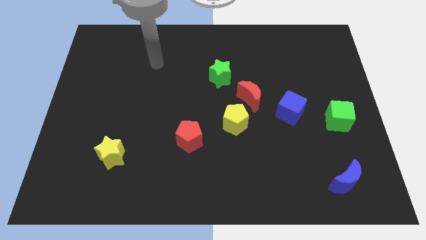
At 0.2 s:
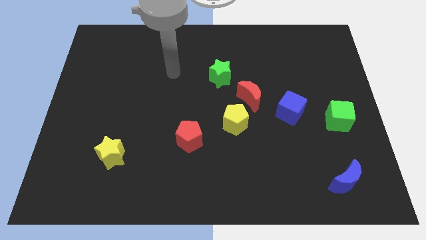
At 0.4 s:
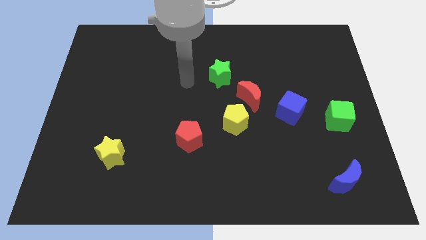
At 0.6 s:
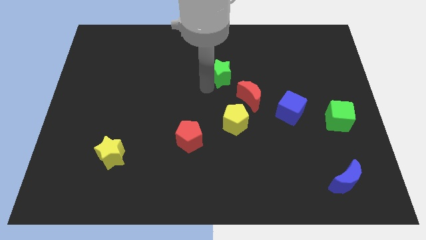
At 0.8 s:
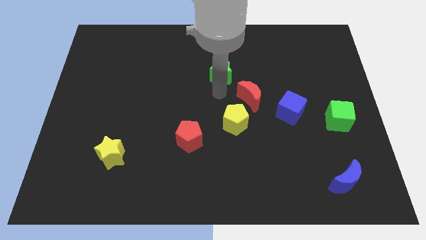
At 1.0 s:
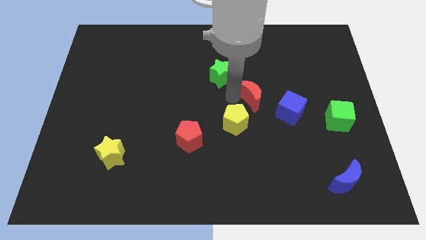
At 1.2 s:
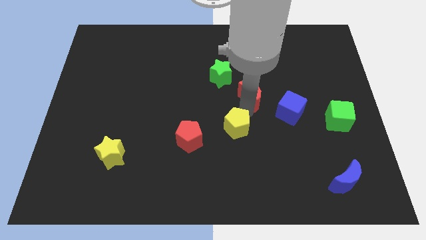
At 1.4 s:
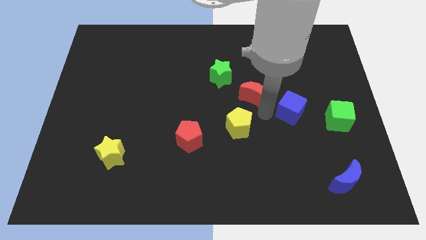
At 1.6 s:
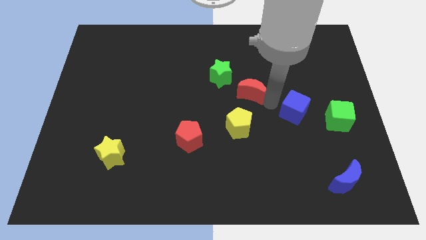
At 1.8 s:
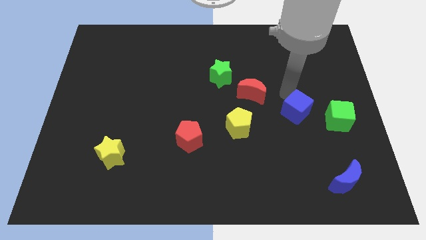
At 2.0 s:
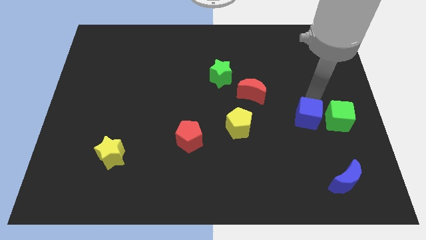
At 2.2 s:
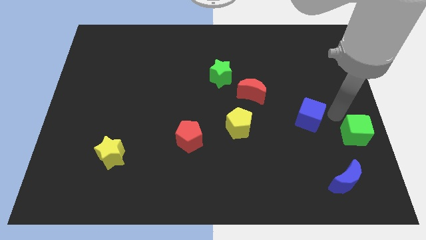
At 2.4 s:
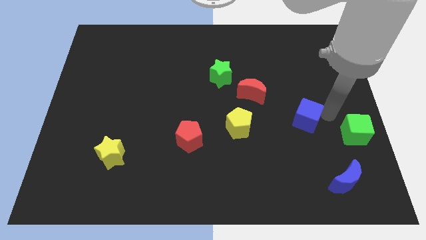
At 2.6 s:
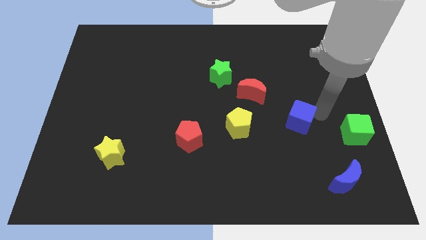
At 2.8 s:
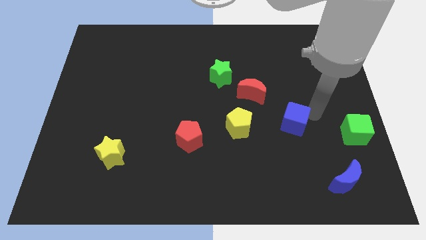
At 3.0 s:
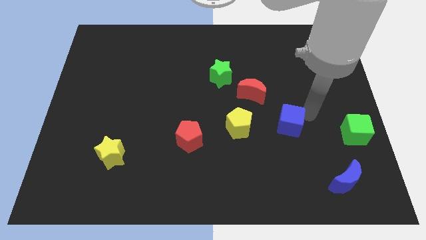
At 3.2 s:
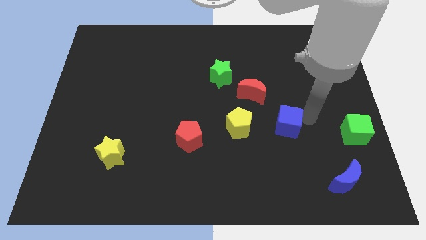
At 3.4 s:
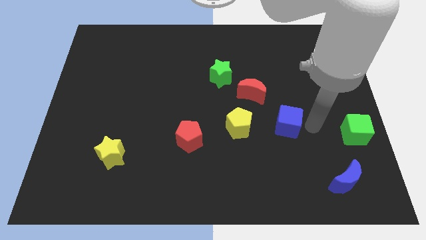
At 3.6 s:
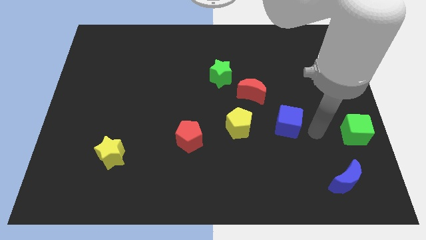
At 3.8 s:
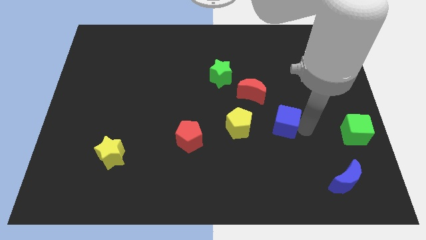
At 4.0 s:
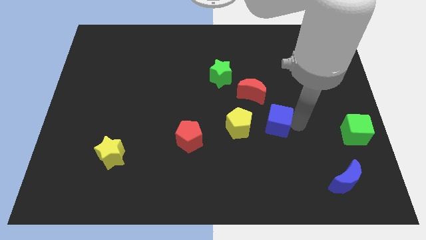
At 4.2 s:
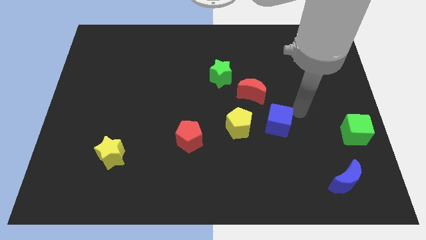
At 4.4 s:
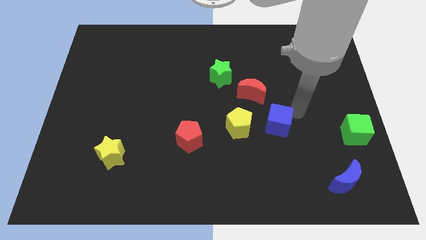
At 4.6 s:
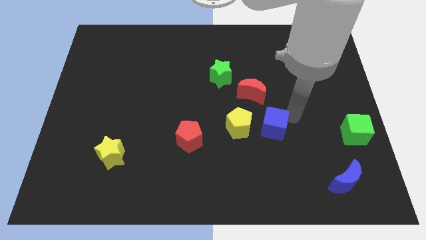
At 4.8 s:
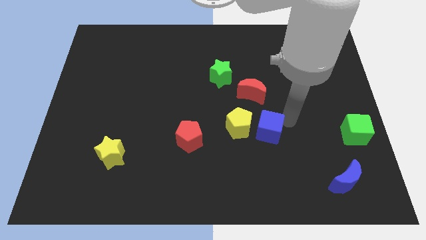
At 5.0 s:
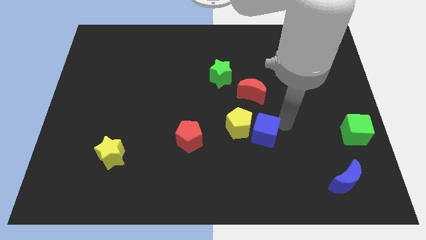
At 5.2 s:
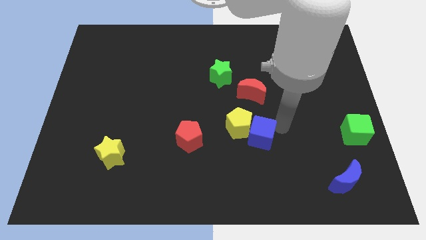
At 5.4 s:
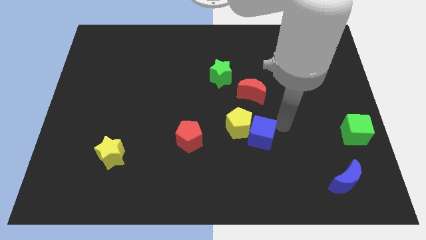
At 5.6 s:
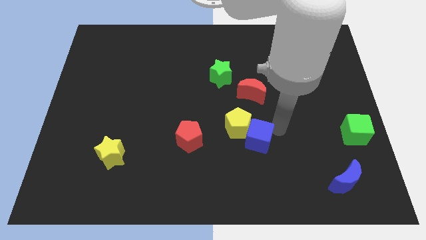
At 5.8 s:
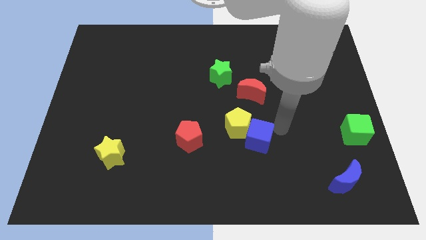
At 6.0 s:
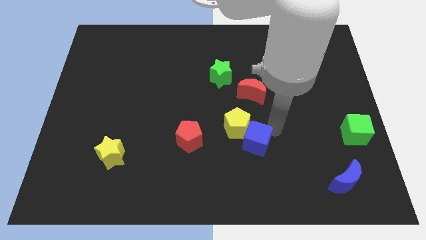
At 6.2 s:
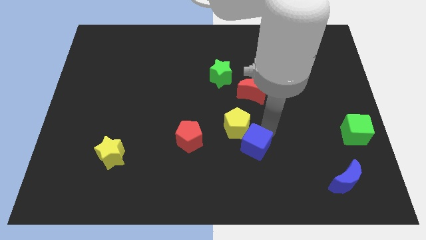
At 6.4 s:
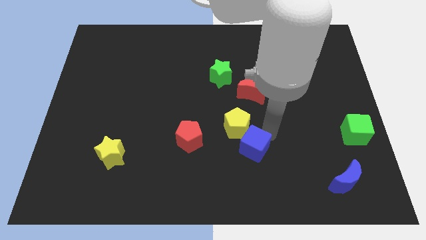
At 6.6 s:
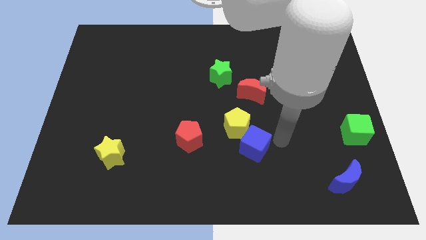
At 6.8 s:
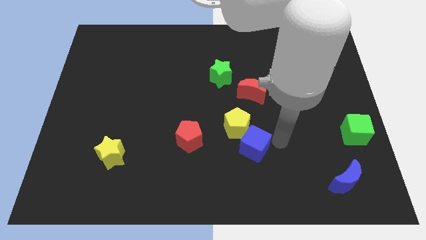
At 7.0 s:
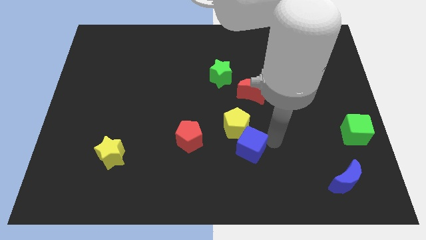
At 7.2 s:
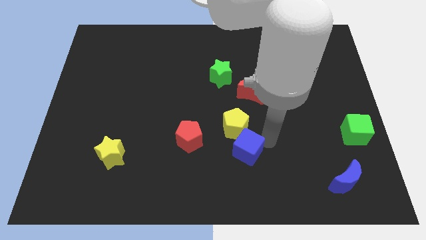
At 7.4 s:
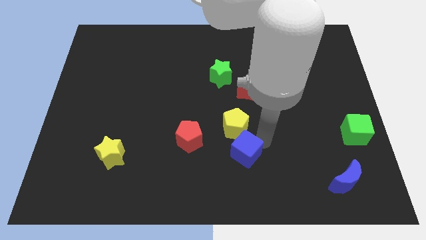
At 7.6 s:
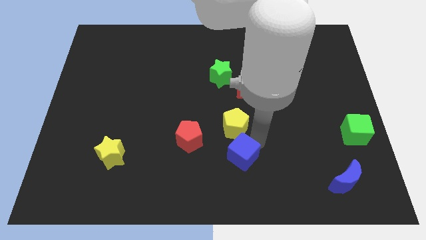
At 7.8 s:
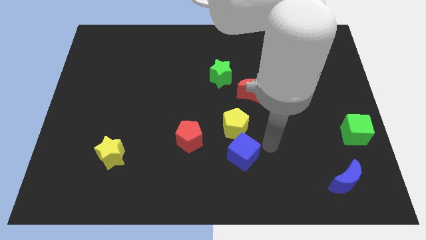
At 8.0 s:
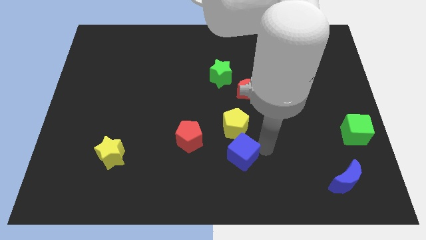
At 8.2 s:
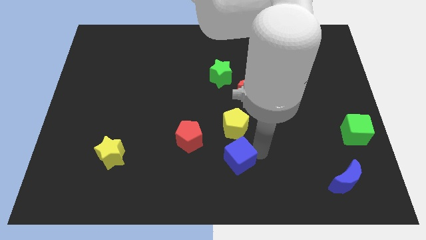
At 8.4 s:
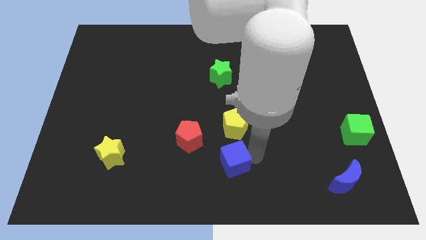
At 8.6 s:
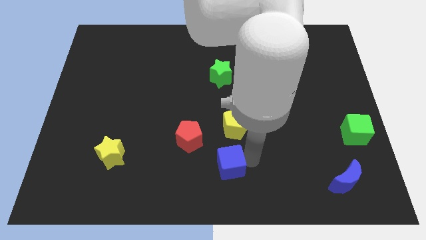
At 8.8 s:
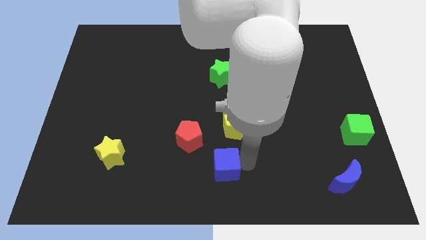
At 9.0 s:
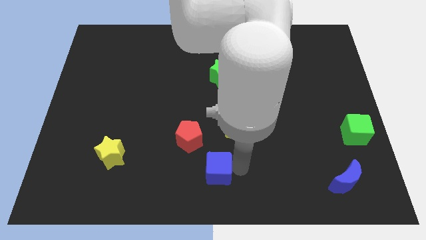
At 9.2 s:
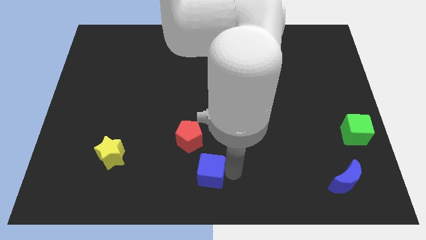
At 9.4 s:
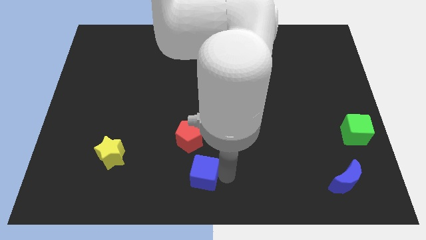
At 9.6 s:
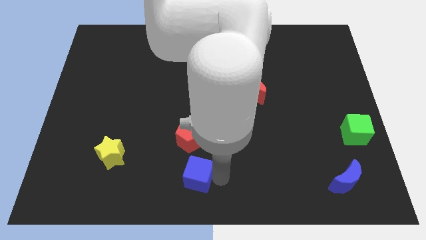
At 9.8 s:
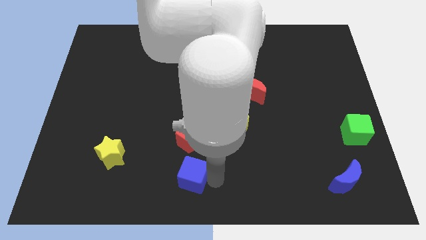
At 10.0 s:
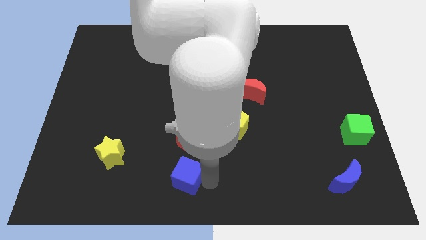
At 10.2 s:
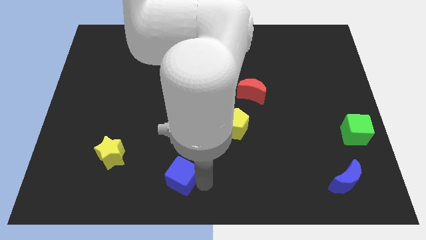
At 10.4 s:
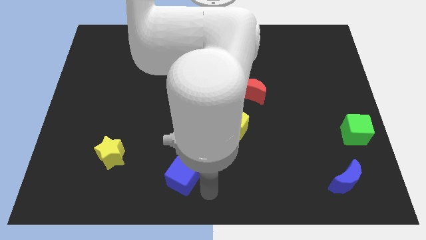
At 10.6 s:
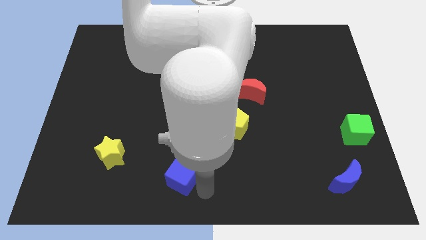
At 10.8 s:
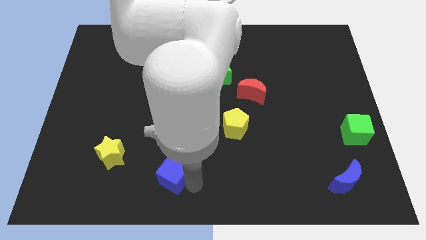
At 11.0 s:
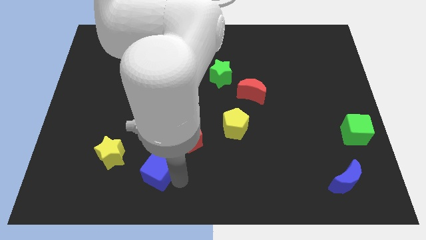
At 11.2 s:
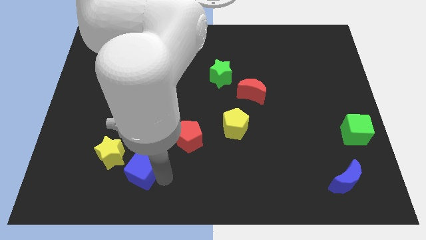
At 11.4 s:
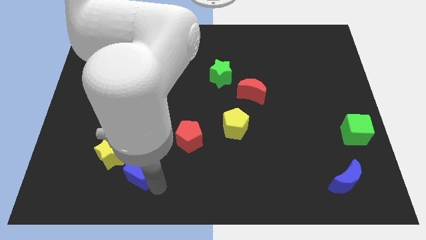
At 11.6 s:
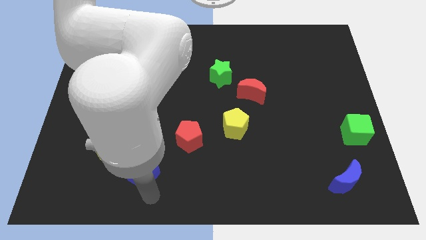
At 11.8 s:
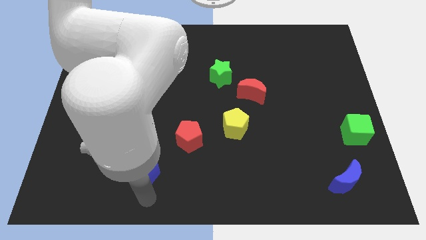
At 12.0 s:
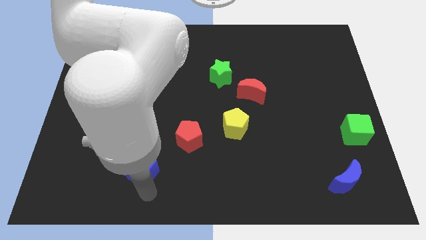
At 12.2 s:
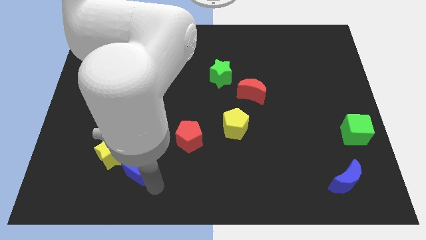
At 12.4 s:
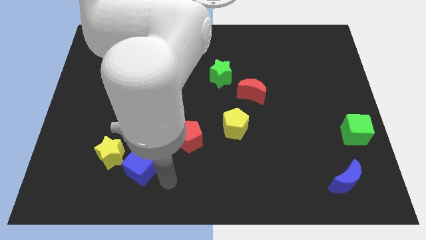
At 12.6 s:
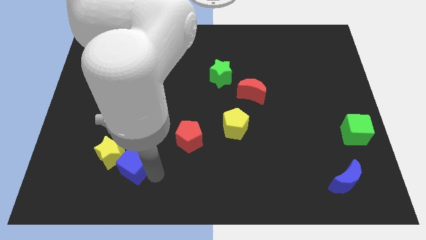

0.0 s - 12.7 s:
move the blue cube next to the yellow star

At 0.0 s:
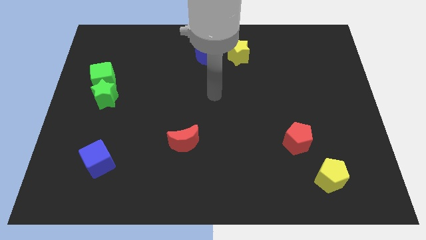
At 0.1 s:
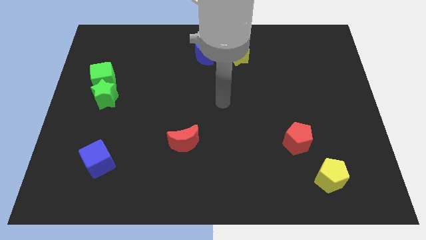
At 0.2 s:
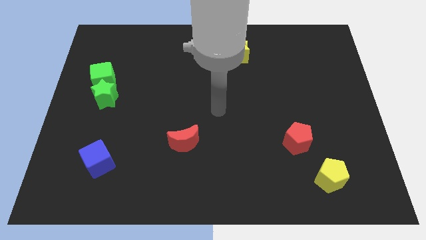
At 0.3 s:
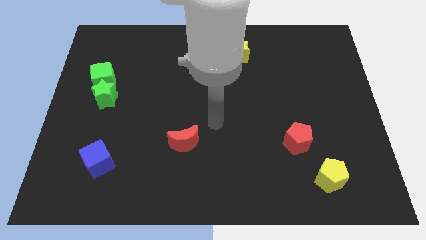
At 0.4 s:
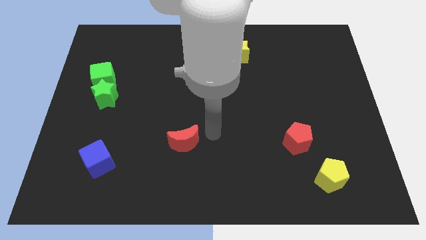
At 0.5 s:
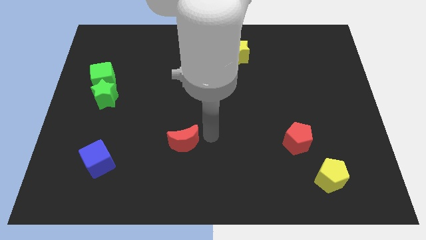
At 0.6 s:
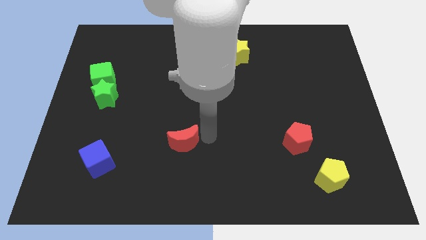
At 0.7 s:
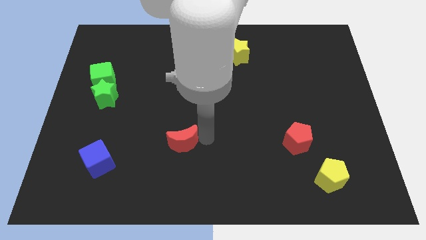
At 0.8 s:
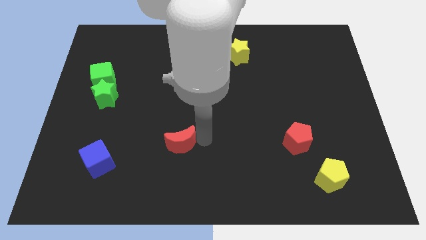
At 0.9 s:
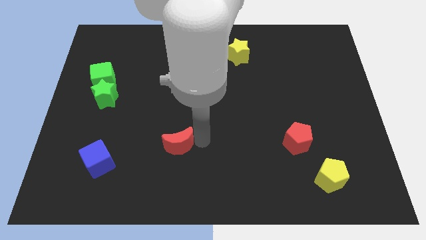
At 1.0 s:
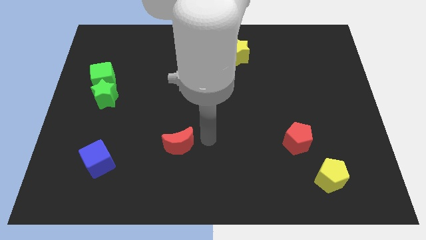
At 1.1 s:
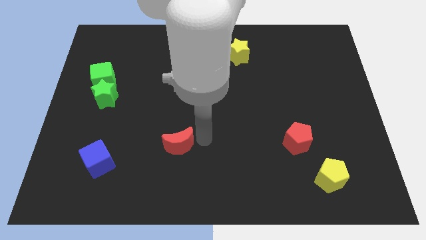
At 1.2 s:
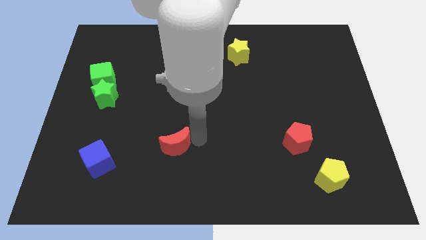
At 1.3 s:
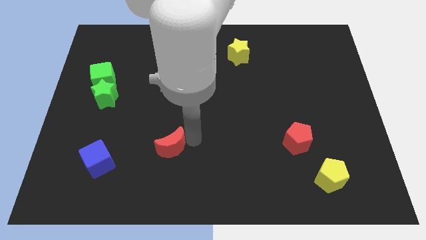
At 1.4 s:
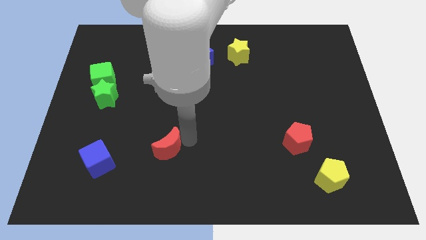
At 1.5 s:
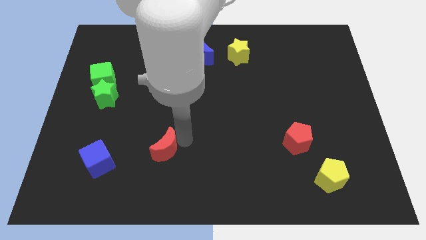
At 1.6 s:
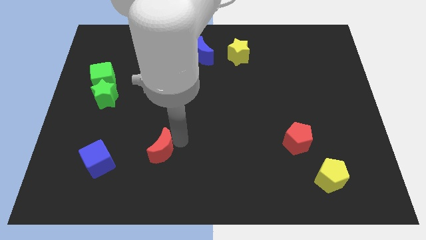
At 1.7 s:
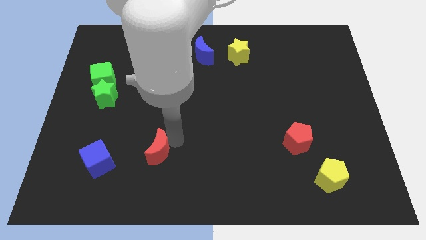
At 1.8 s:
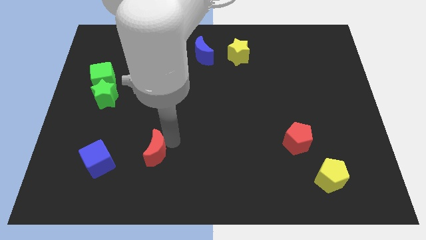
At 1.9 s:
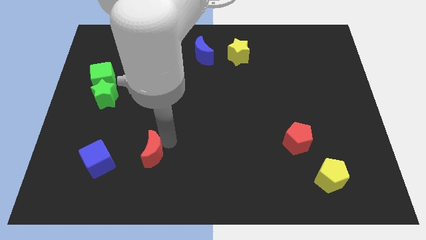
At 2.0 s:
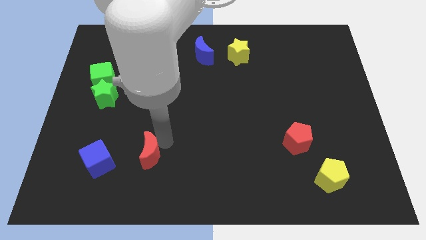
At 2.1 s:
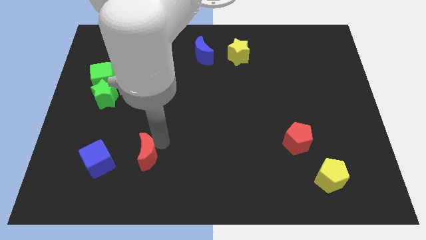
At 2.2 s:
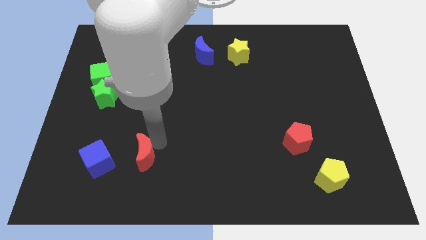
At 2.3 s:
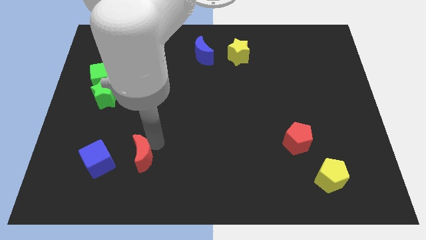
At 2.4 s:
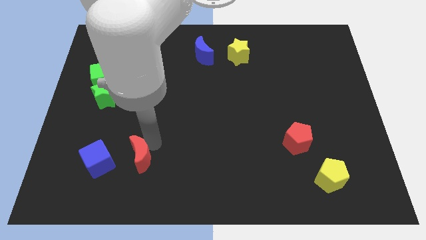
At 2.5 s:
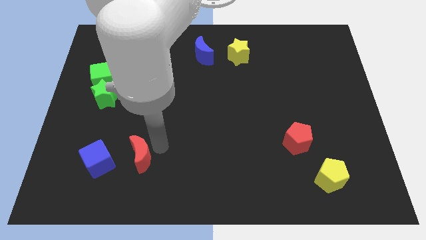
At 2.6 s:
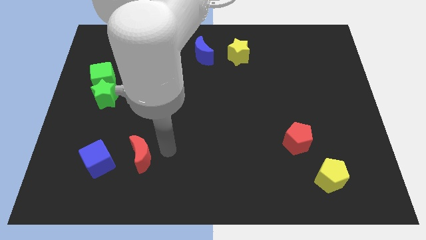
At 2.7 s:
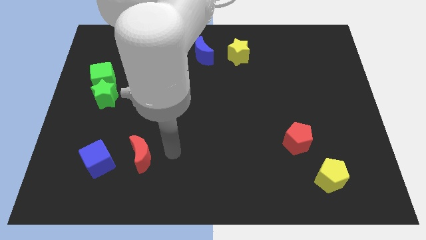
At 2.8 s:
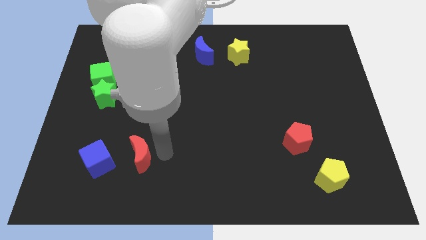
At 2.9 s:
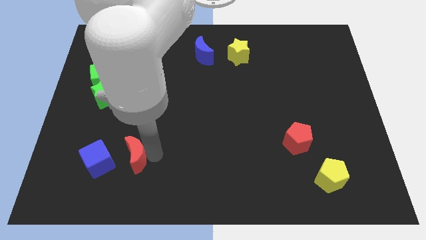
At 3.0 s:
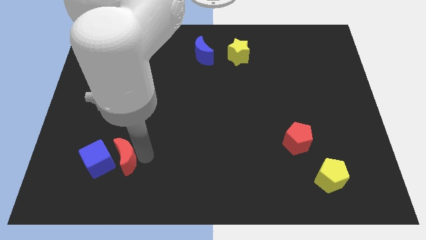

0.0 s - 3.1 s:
slide the red moon towards the blue cube
